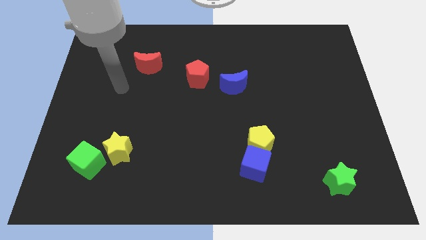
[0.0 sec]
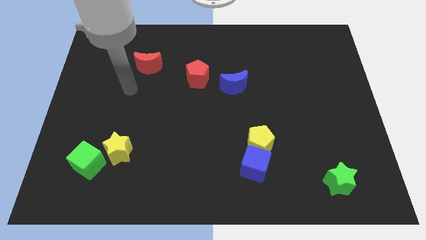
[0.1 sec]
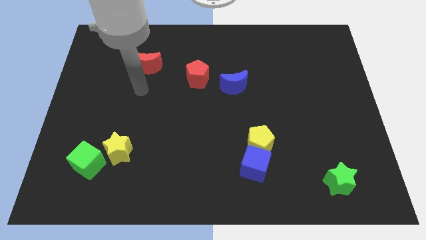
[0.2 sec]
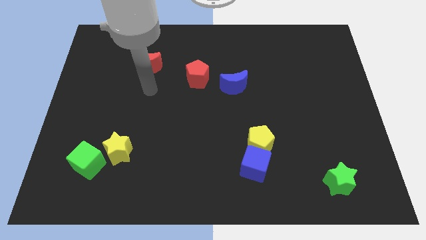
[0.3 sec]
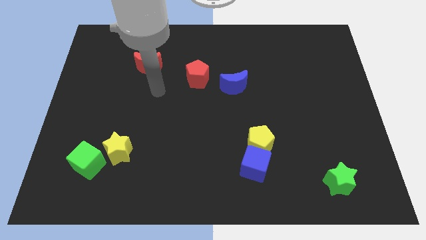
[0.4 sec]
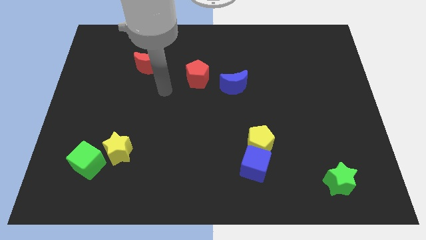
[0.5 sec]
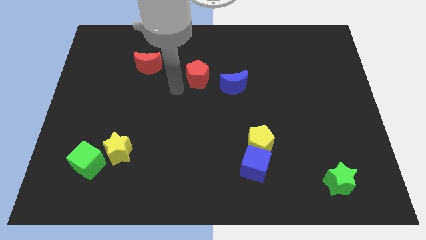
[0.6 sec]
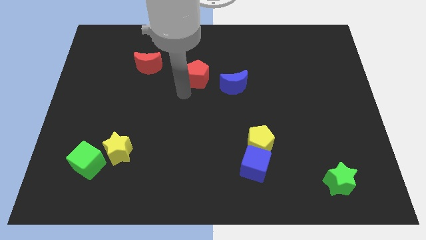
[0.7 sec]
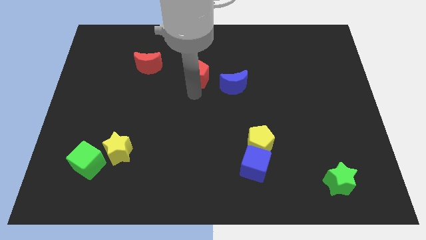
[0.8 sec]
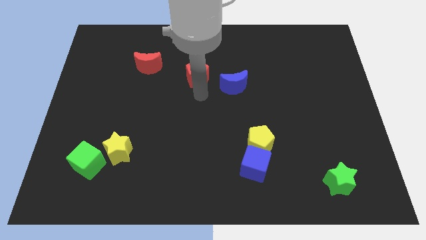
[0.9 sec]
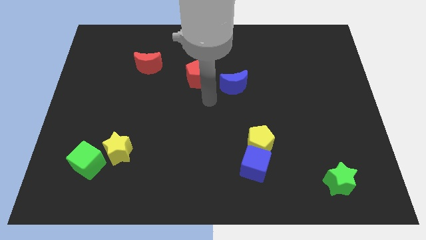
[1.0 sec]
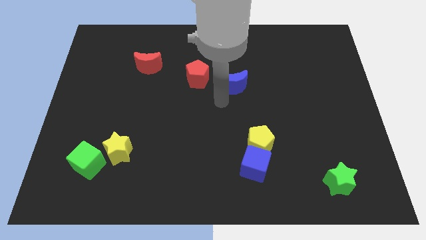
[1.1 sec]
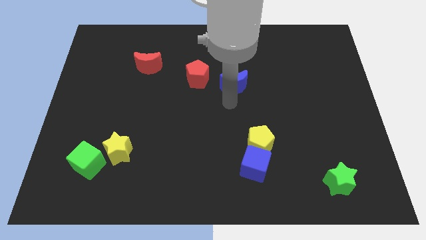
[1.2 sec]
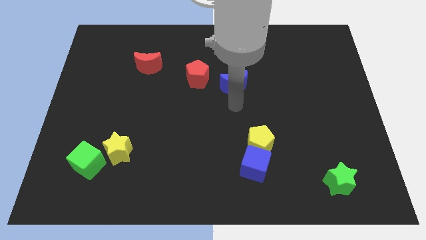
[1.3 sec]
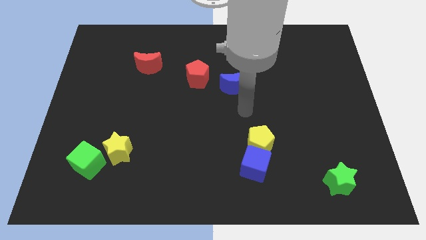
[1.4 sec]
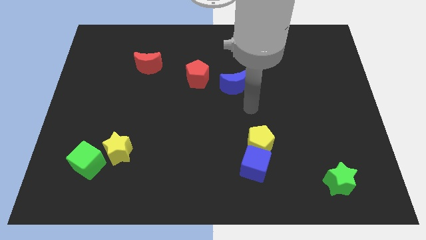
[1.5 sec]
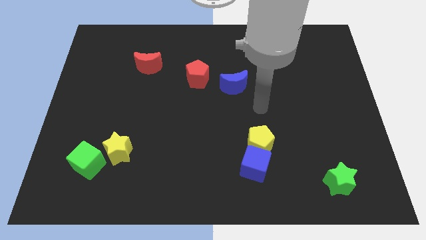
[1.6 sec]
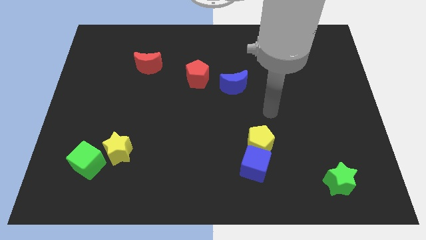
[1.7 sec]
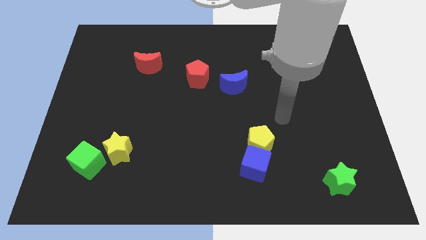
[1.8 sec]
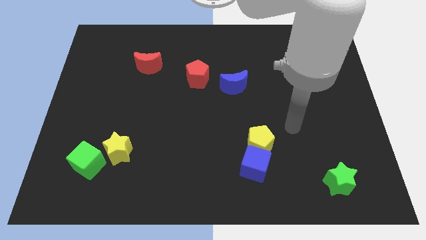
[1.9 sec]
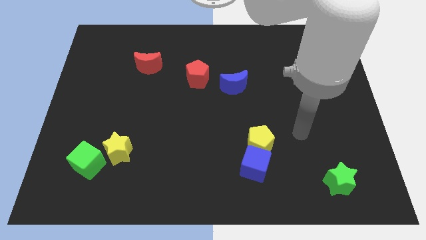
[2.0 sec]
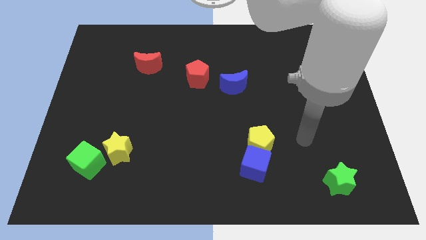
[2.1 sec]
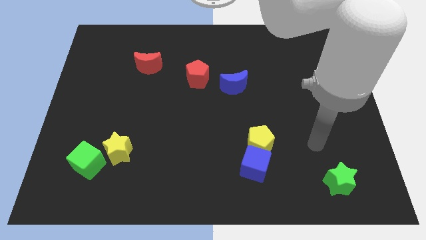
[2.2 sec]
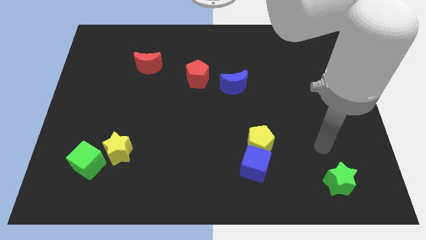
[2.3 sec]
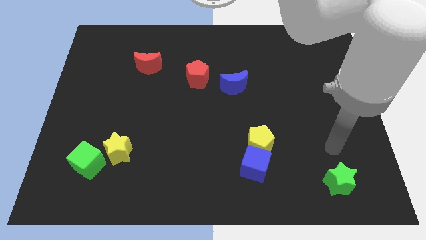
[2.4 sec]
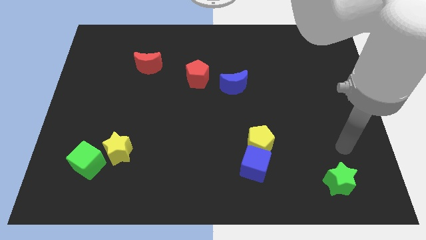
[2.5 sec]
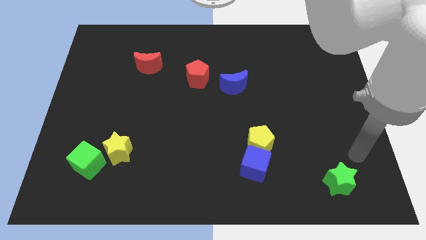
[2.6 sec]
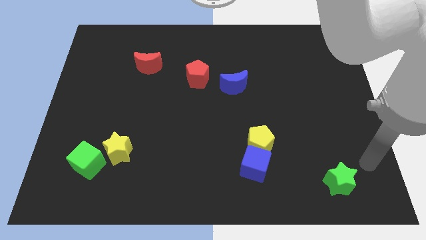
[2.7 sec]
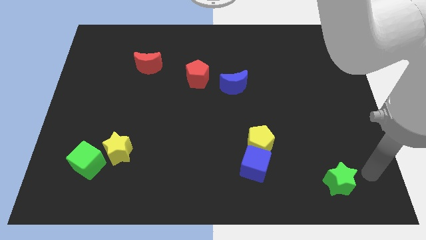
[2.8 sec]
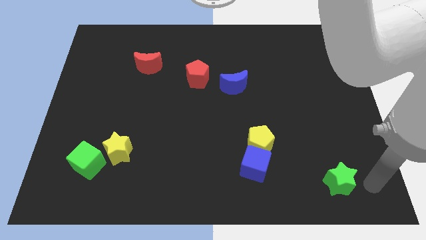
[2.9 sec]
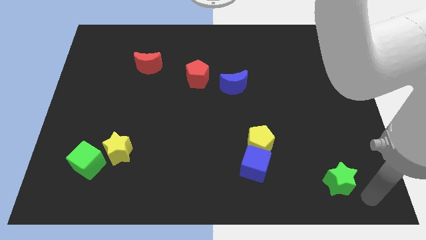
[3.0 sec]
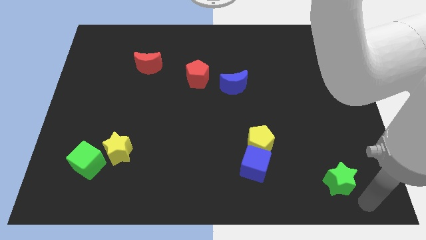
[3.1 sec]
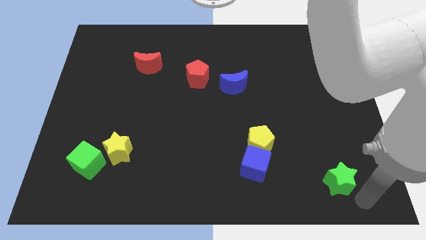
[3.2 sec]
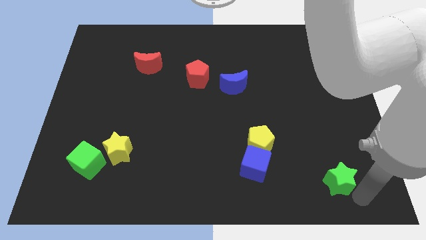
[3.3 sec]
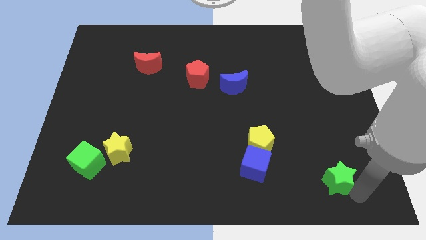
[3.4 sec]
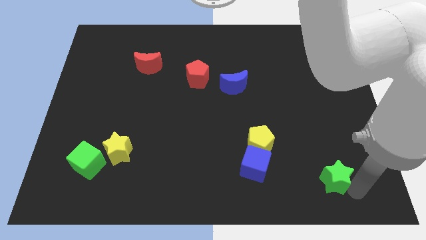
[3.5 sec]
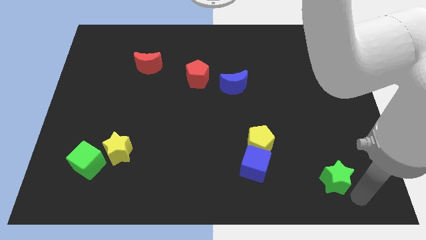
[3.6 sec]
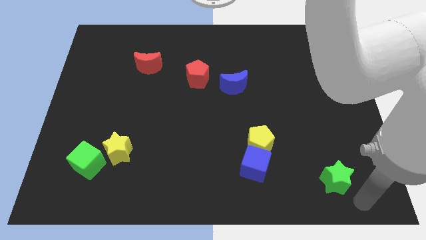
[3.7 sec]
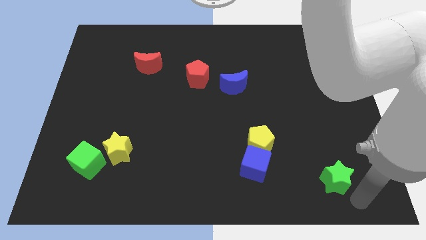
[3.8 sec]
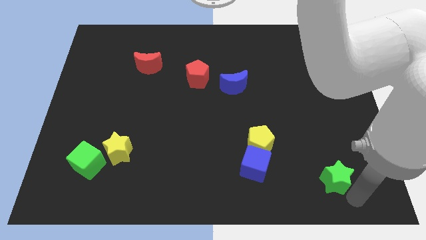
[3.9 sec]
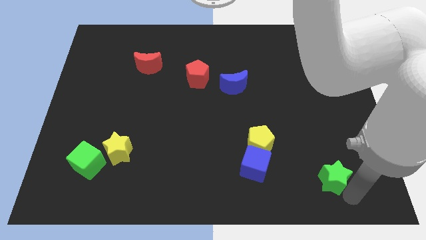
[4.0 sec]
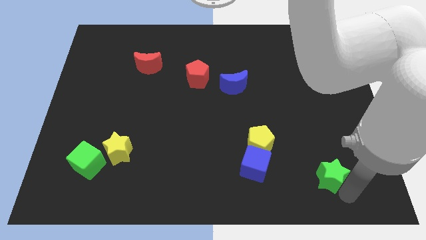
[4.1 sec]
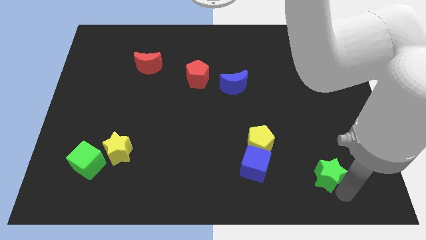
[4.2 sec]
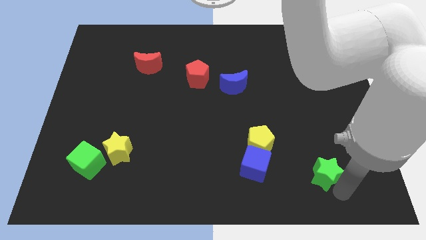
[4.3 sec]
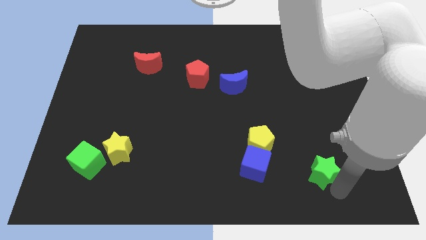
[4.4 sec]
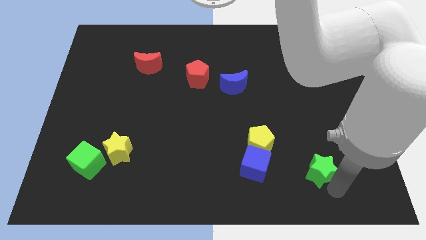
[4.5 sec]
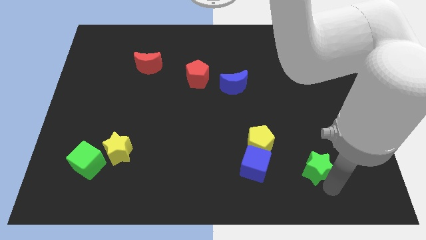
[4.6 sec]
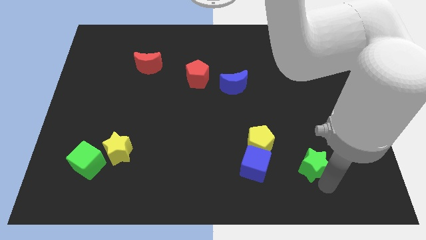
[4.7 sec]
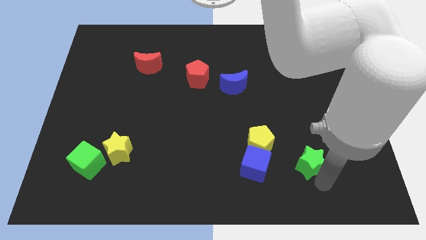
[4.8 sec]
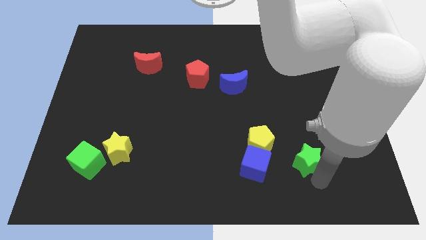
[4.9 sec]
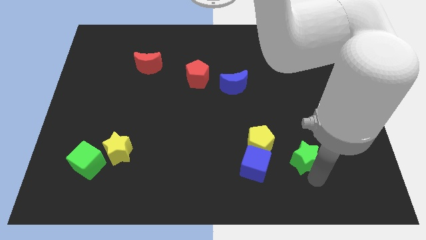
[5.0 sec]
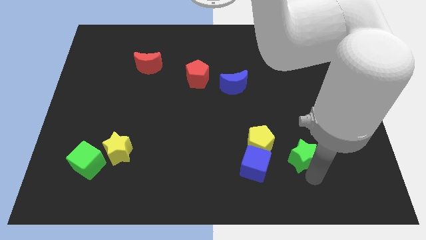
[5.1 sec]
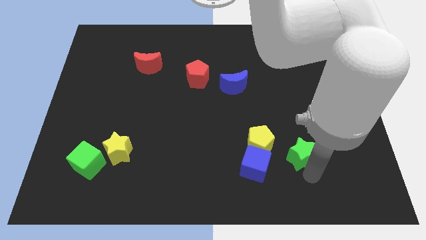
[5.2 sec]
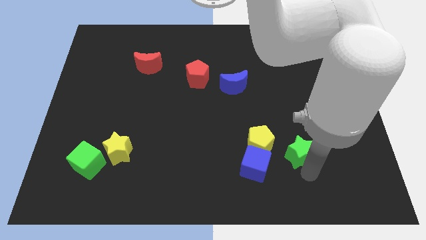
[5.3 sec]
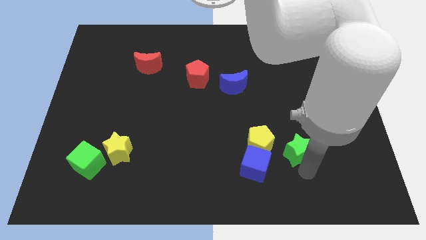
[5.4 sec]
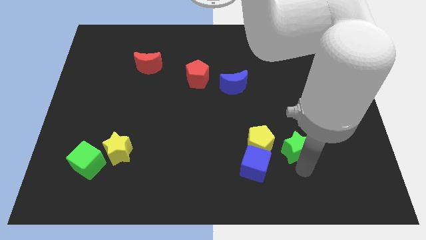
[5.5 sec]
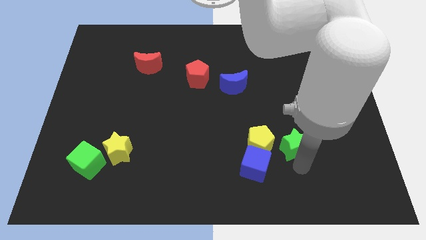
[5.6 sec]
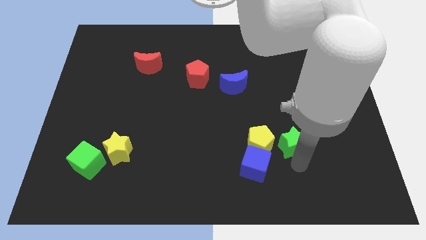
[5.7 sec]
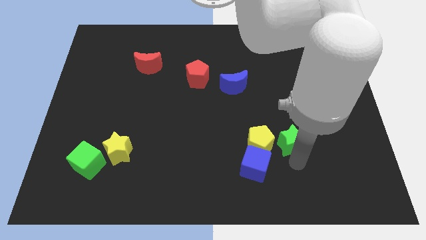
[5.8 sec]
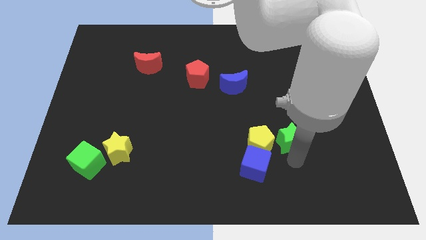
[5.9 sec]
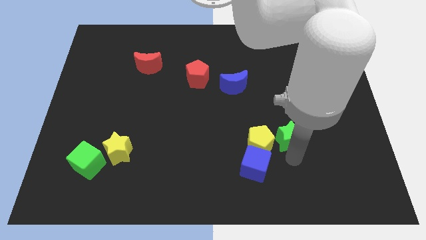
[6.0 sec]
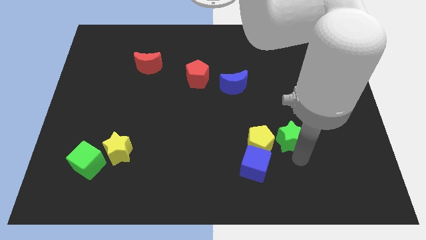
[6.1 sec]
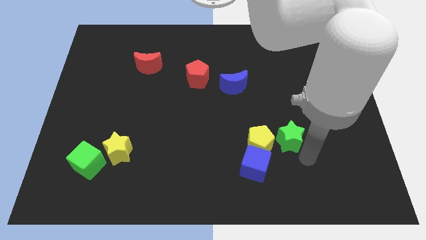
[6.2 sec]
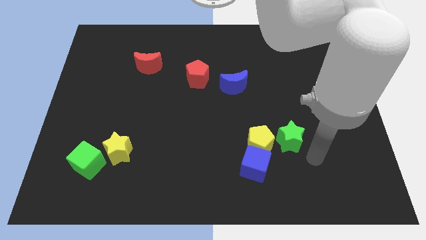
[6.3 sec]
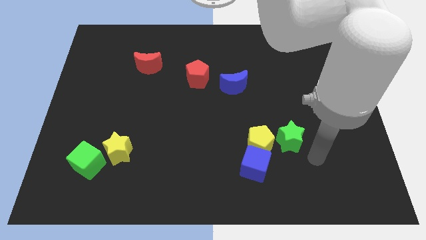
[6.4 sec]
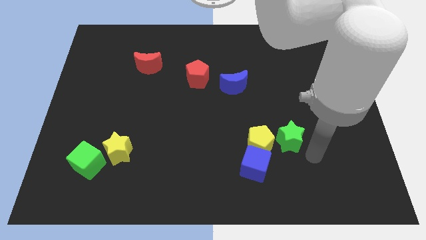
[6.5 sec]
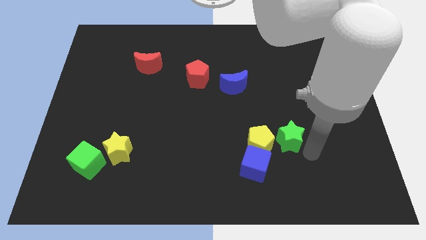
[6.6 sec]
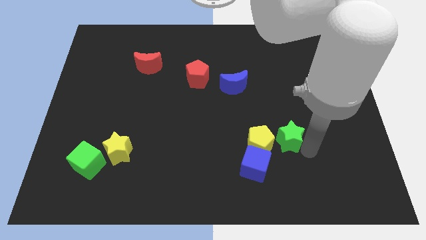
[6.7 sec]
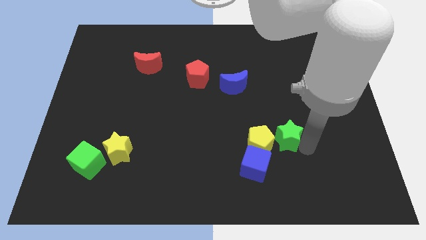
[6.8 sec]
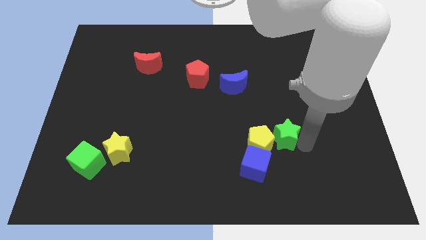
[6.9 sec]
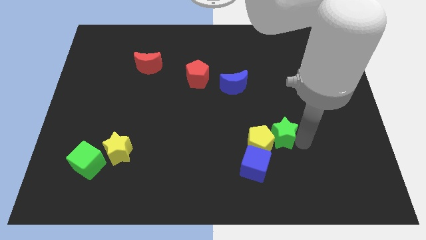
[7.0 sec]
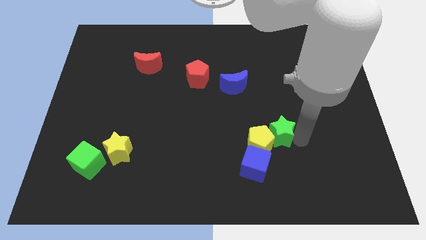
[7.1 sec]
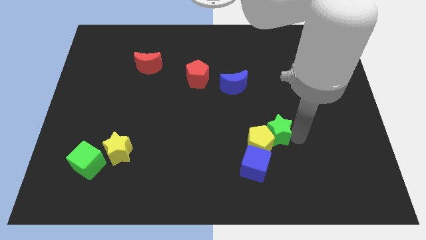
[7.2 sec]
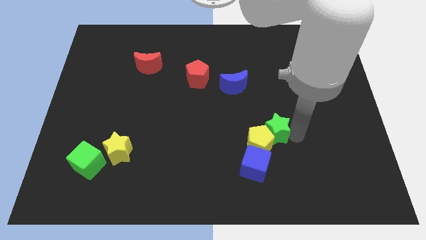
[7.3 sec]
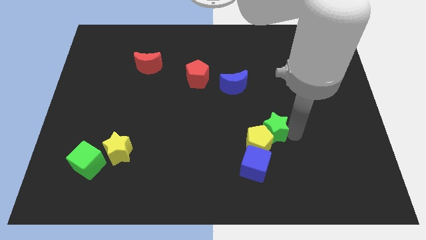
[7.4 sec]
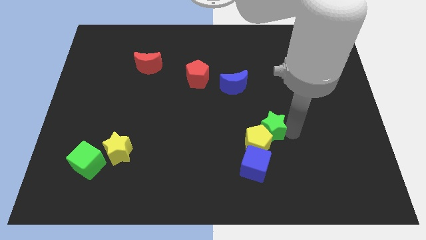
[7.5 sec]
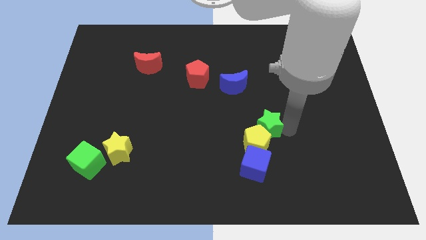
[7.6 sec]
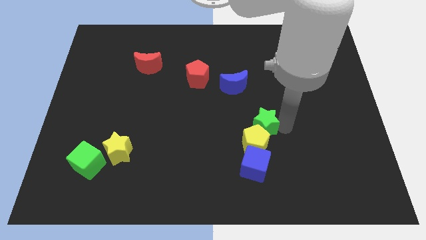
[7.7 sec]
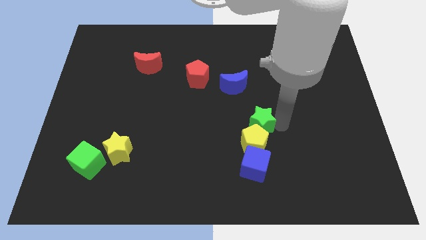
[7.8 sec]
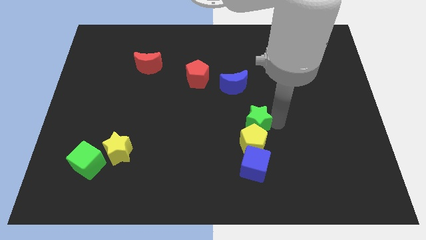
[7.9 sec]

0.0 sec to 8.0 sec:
put the green star to the middle
